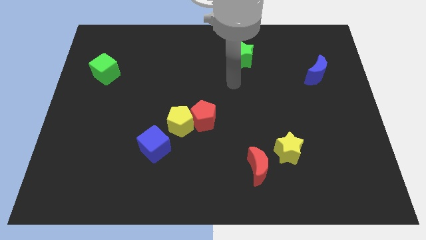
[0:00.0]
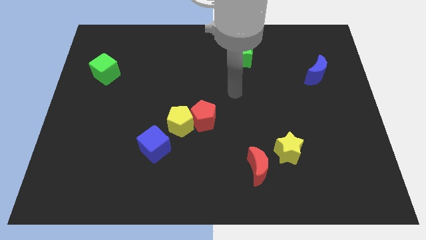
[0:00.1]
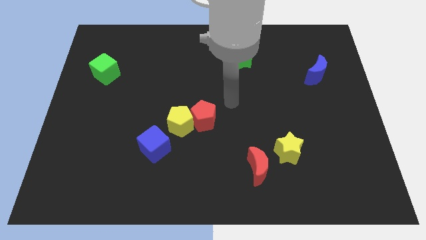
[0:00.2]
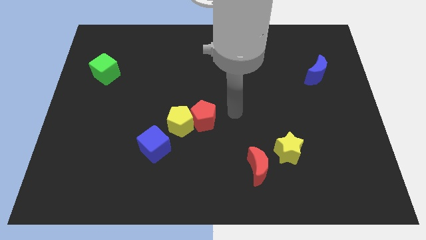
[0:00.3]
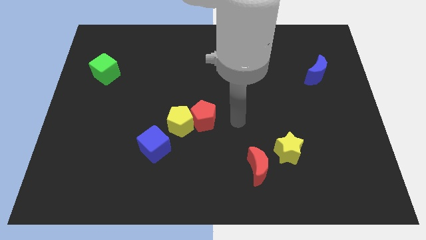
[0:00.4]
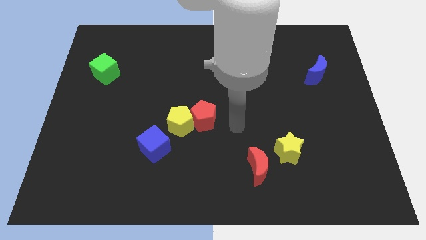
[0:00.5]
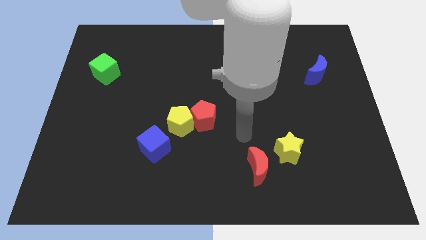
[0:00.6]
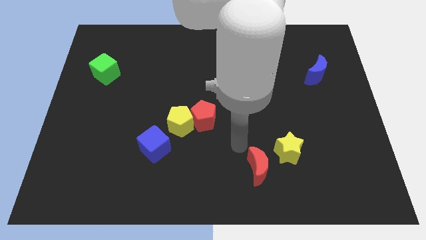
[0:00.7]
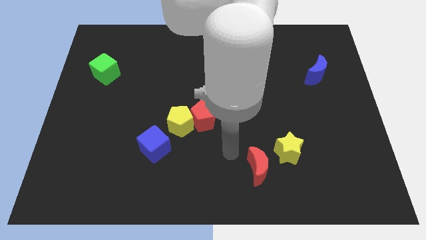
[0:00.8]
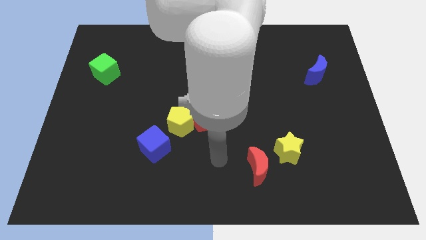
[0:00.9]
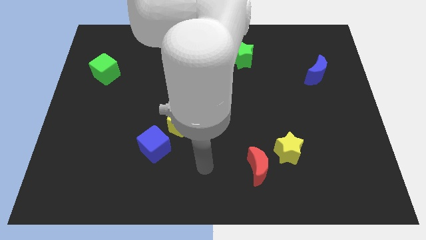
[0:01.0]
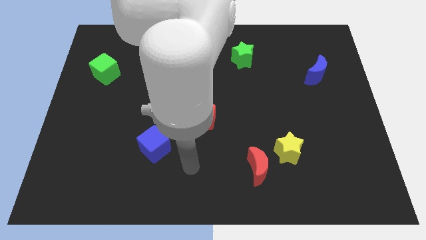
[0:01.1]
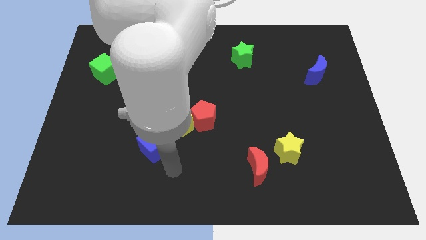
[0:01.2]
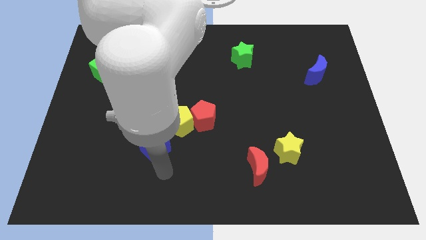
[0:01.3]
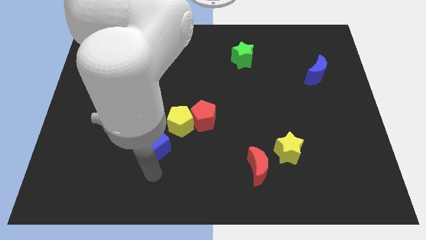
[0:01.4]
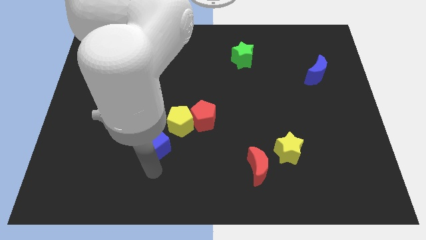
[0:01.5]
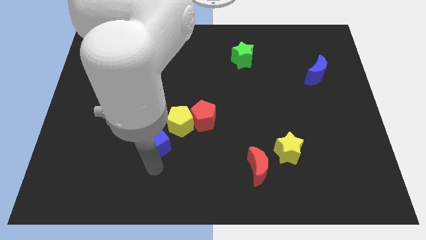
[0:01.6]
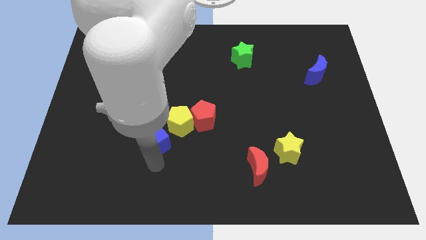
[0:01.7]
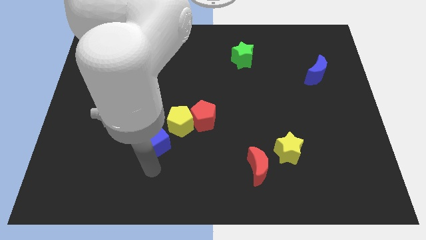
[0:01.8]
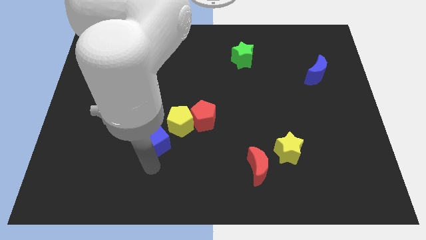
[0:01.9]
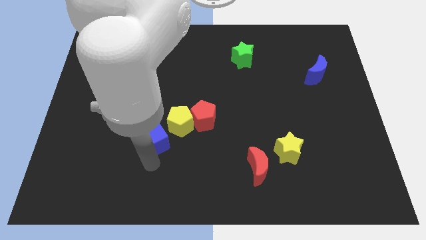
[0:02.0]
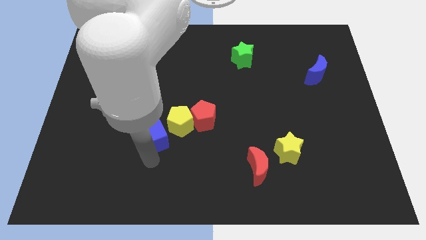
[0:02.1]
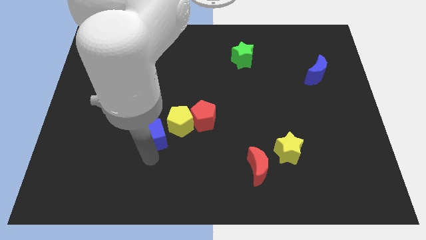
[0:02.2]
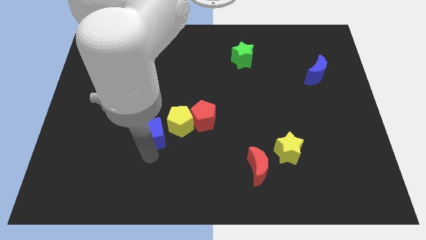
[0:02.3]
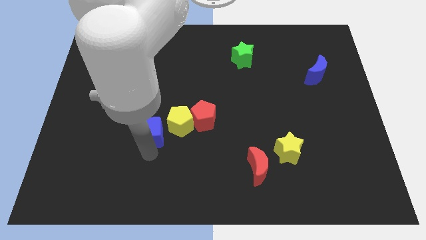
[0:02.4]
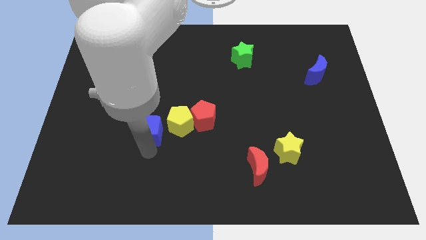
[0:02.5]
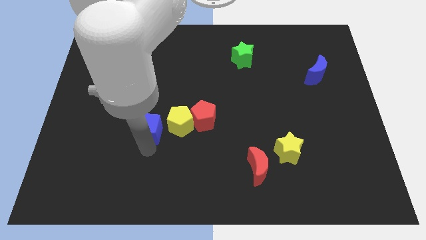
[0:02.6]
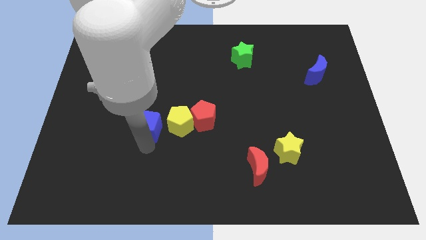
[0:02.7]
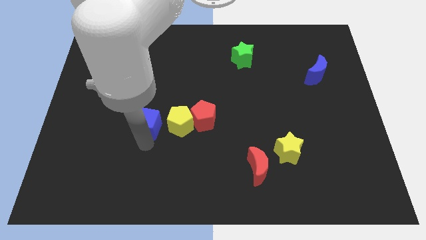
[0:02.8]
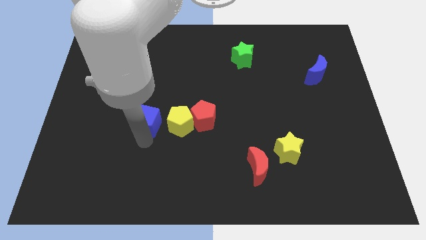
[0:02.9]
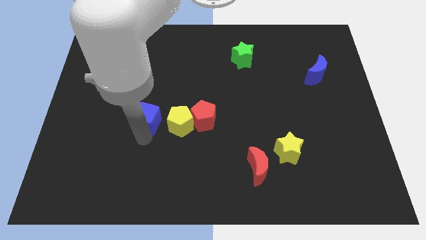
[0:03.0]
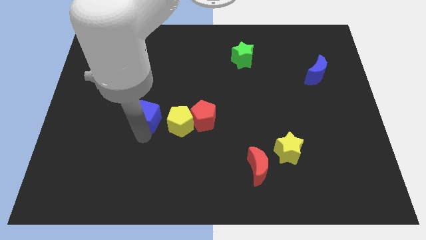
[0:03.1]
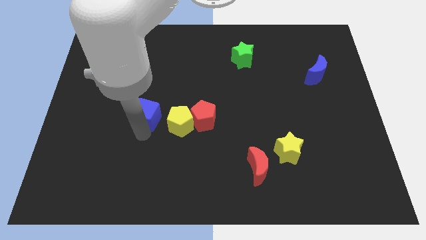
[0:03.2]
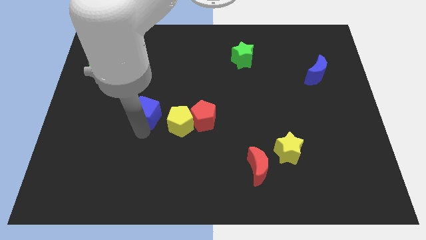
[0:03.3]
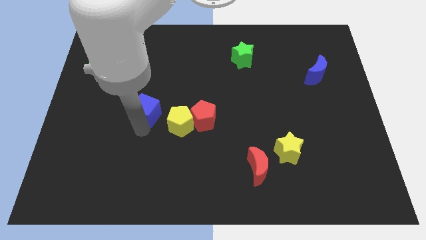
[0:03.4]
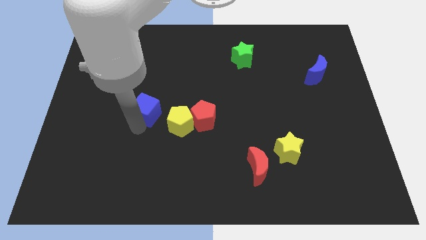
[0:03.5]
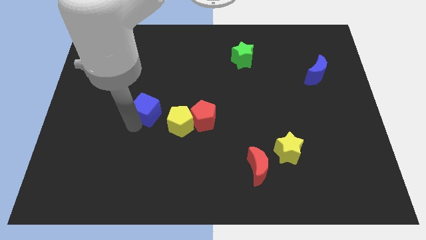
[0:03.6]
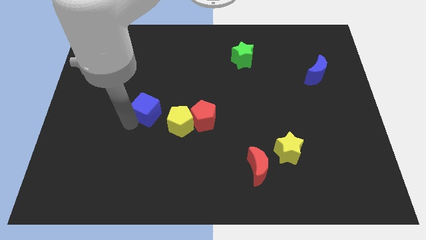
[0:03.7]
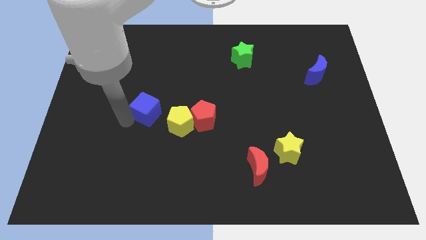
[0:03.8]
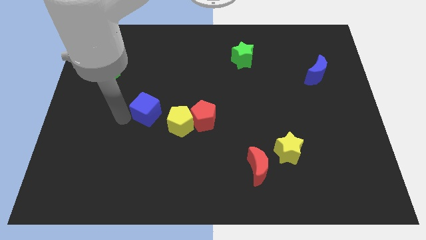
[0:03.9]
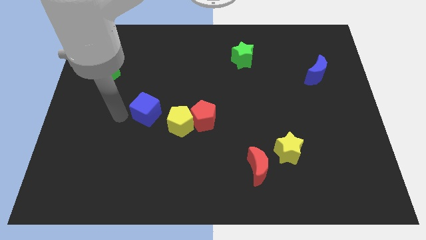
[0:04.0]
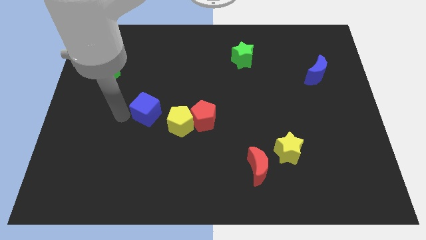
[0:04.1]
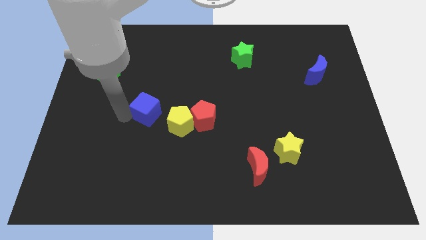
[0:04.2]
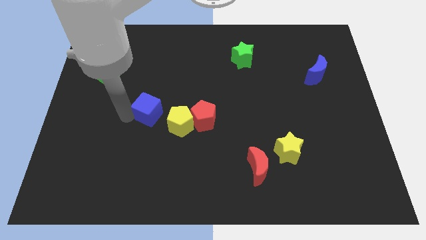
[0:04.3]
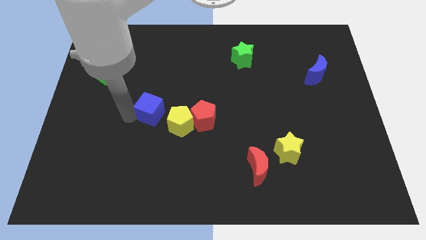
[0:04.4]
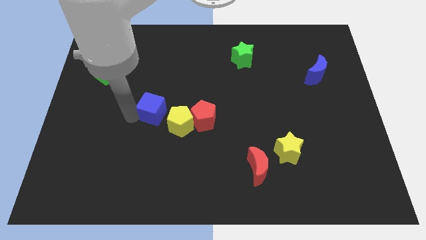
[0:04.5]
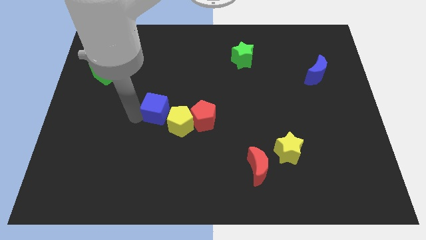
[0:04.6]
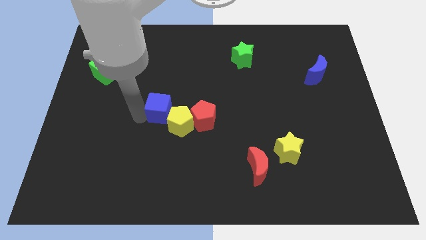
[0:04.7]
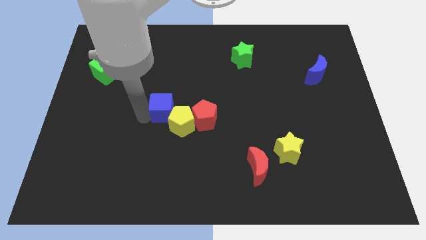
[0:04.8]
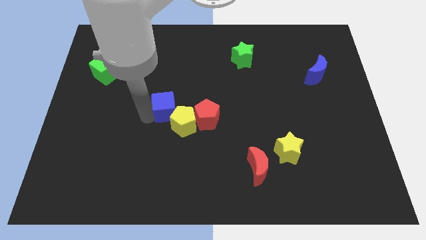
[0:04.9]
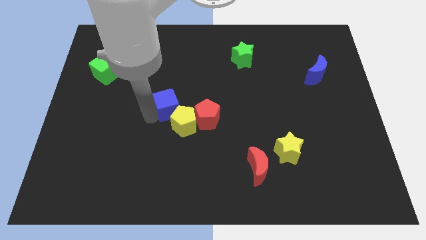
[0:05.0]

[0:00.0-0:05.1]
slightly push the blue cube upwards and to the right diagonally

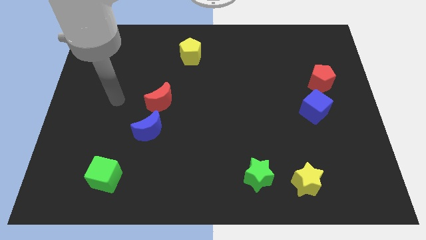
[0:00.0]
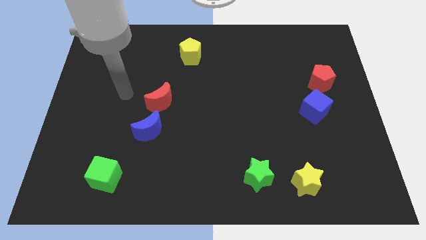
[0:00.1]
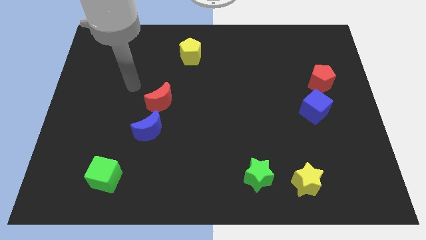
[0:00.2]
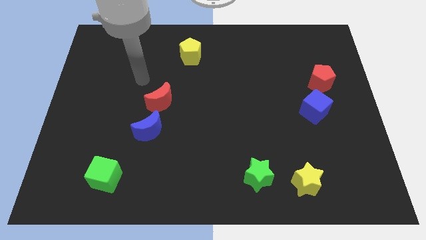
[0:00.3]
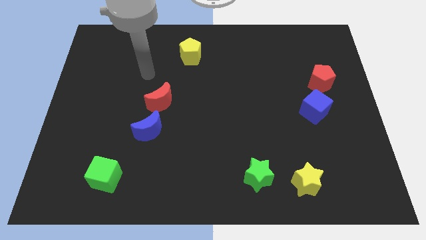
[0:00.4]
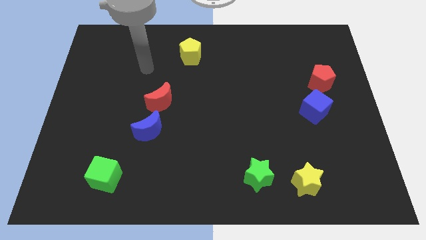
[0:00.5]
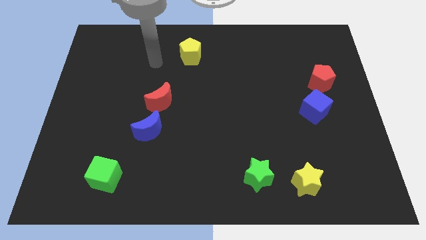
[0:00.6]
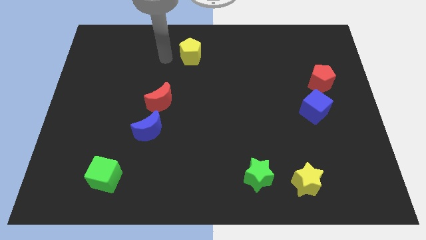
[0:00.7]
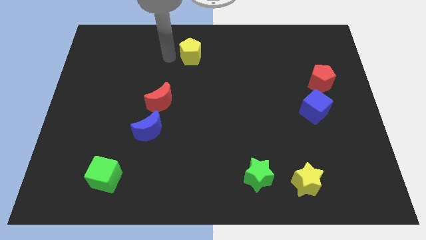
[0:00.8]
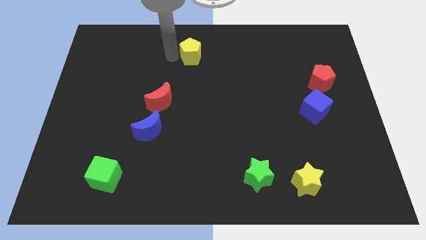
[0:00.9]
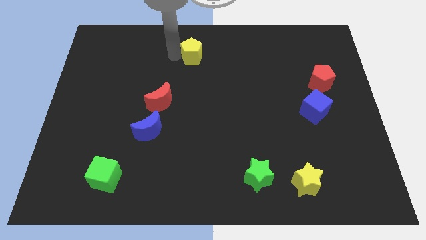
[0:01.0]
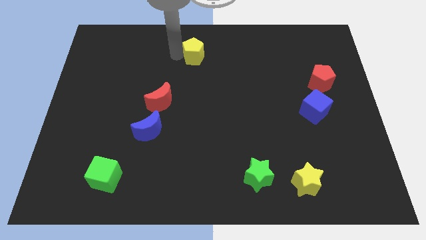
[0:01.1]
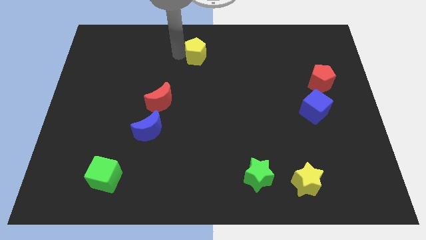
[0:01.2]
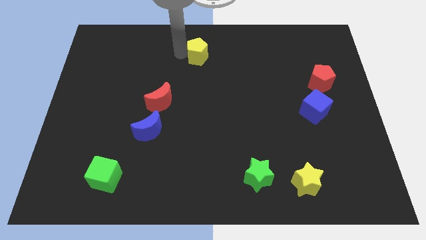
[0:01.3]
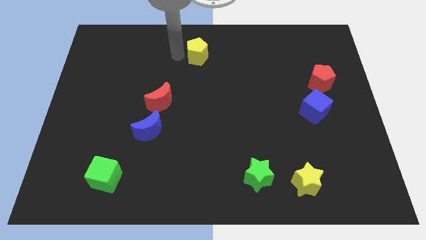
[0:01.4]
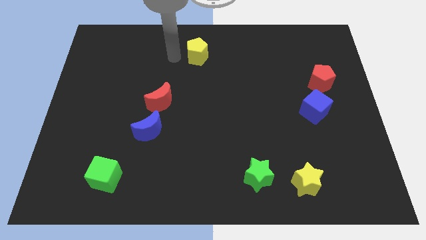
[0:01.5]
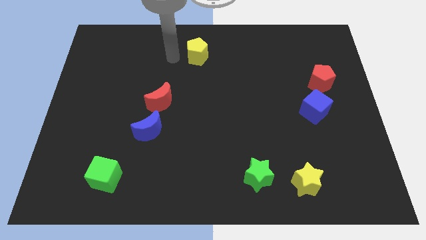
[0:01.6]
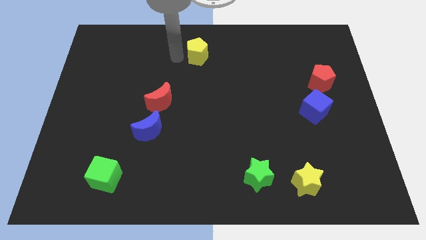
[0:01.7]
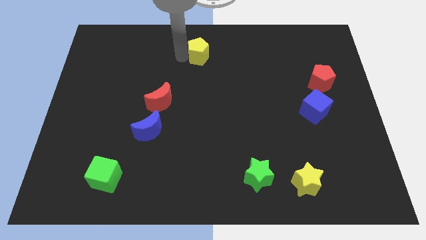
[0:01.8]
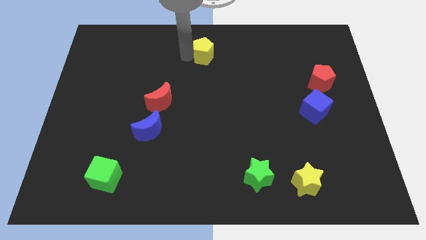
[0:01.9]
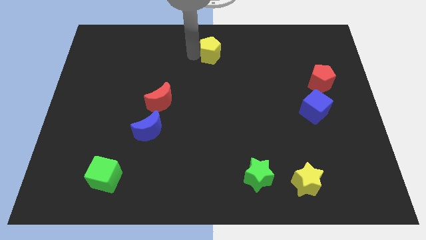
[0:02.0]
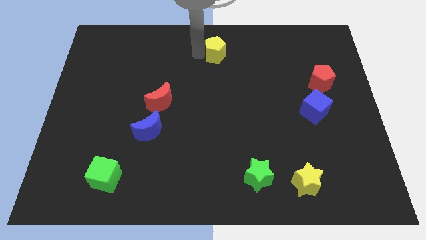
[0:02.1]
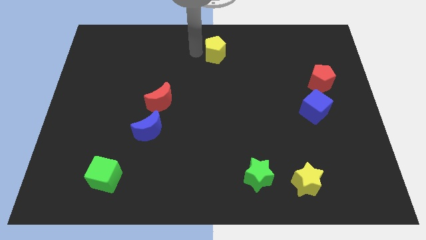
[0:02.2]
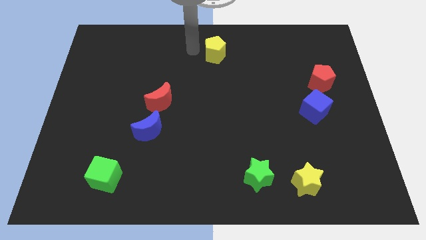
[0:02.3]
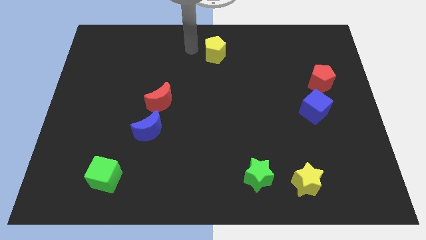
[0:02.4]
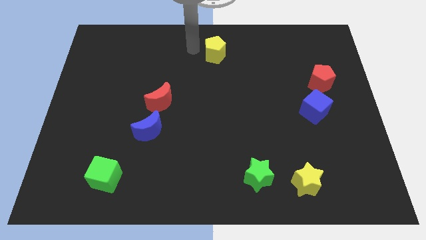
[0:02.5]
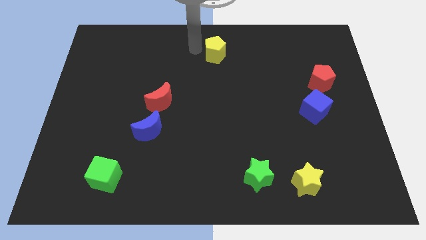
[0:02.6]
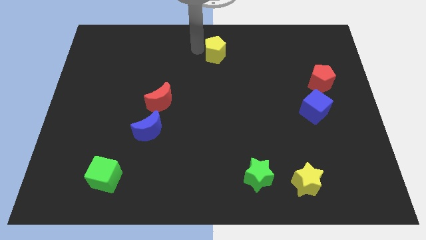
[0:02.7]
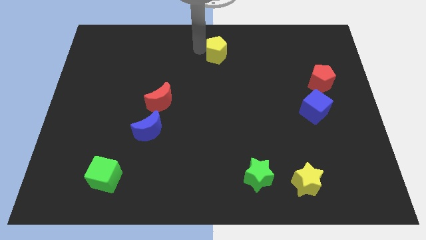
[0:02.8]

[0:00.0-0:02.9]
push the yellow pentagon somewhat right
